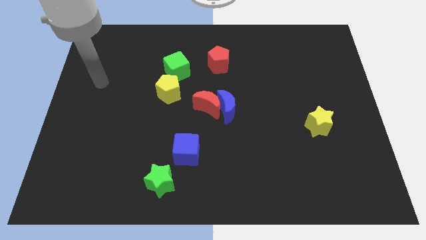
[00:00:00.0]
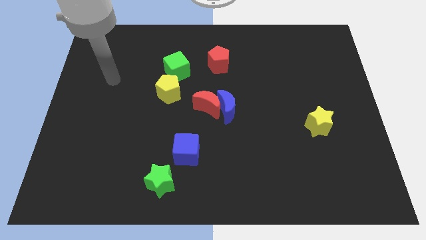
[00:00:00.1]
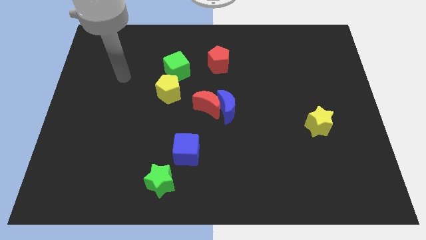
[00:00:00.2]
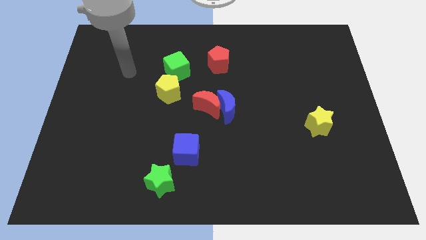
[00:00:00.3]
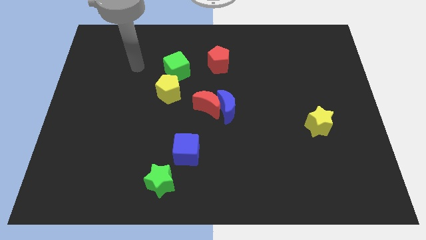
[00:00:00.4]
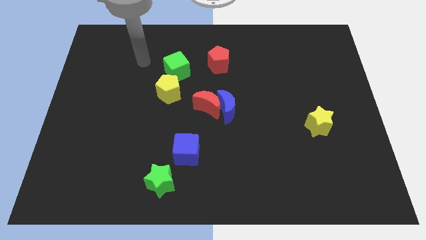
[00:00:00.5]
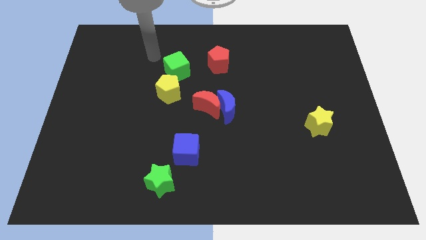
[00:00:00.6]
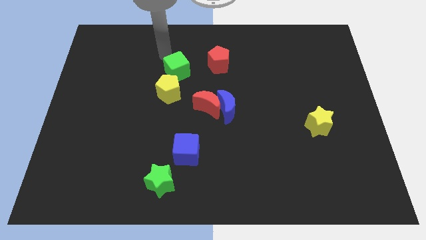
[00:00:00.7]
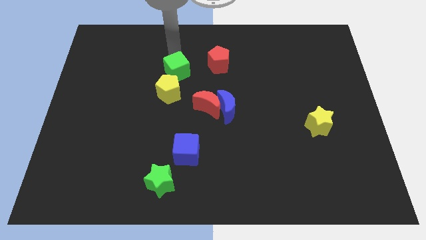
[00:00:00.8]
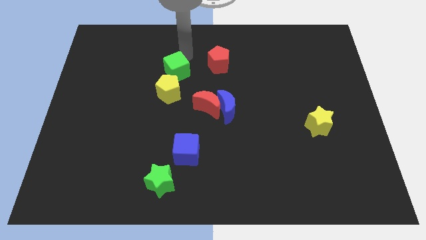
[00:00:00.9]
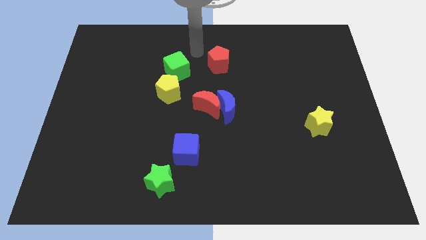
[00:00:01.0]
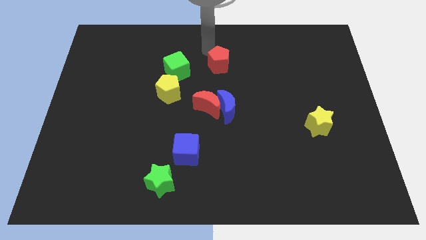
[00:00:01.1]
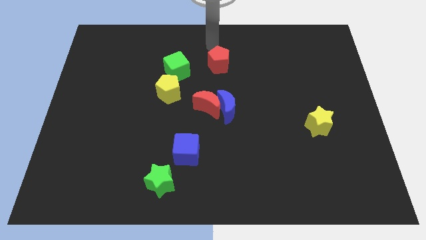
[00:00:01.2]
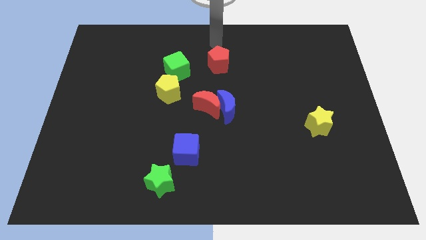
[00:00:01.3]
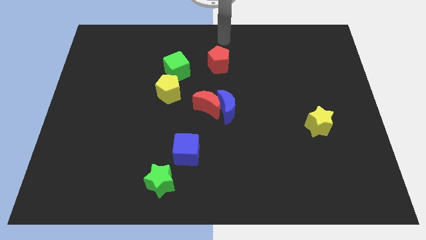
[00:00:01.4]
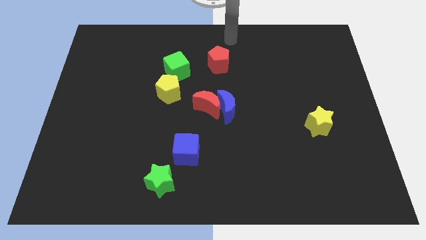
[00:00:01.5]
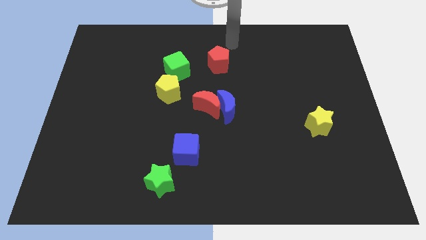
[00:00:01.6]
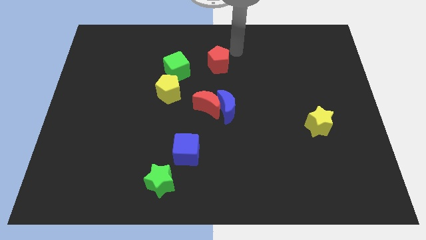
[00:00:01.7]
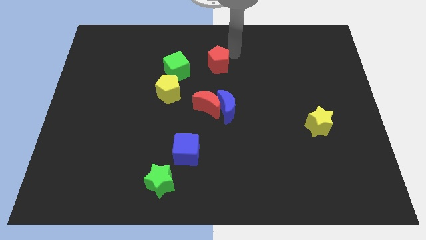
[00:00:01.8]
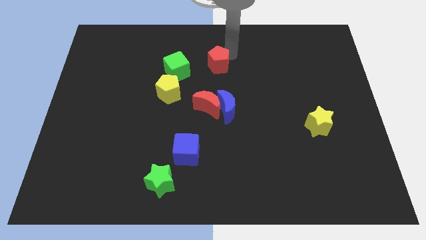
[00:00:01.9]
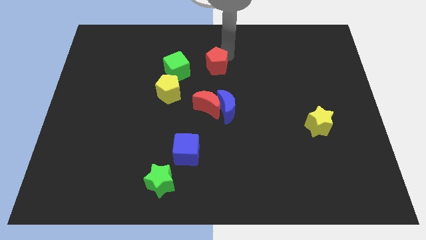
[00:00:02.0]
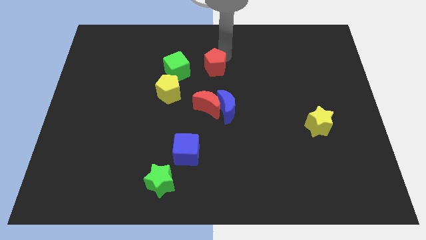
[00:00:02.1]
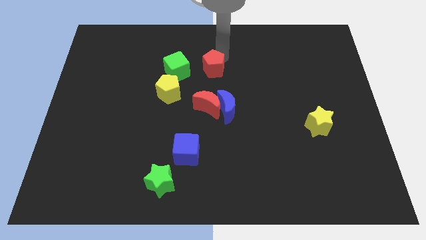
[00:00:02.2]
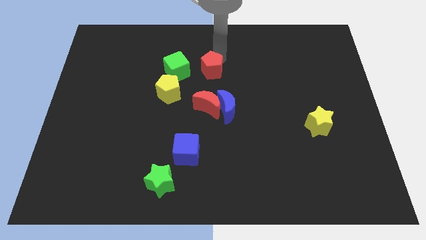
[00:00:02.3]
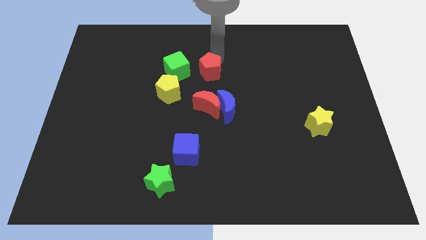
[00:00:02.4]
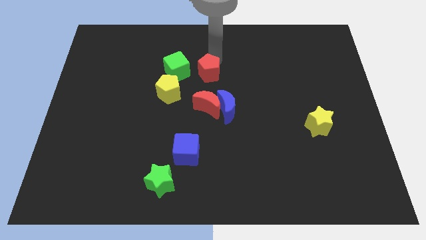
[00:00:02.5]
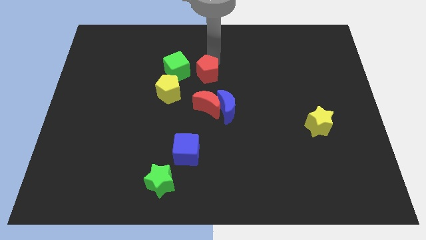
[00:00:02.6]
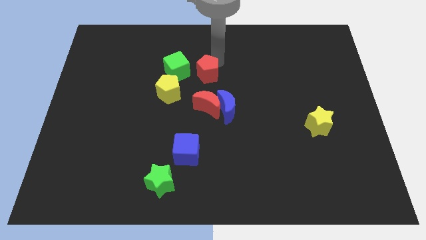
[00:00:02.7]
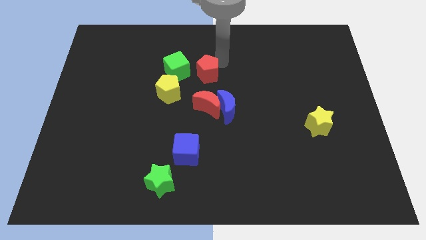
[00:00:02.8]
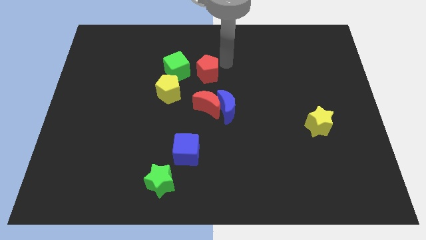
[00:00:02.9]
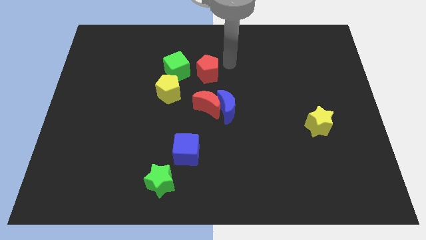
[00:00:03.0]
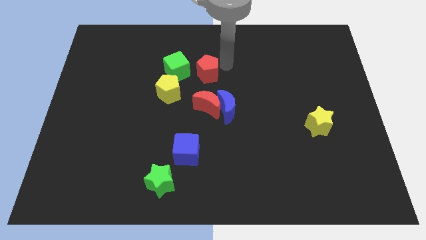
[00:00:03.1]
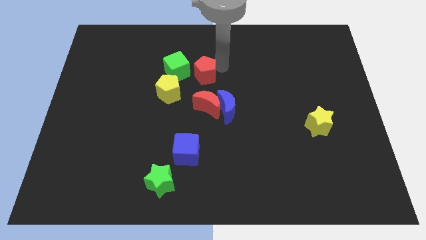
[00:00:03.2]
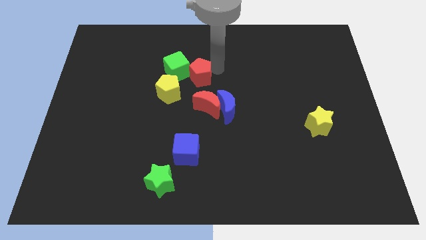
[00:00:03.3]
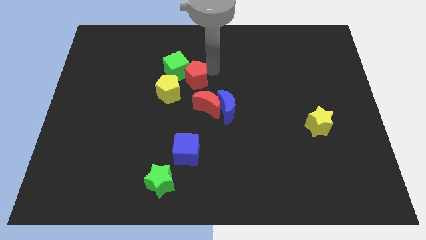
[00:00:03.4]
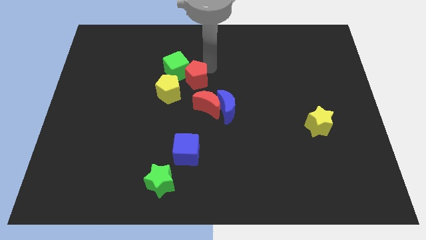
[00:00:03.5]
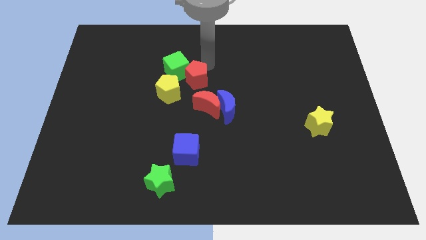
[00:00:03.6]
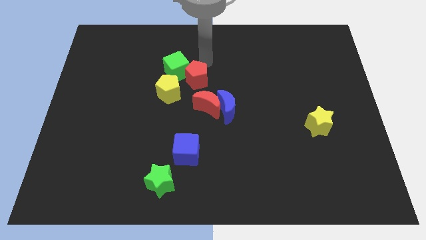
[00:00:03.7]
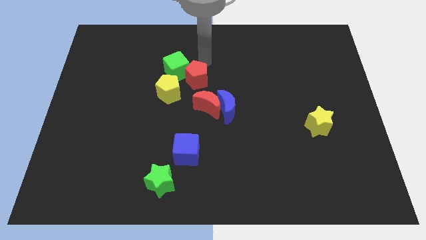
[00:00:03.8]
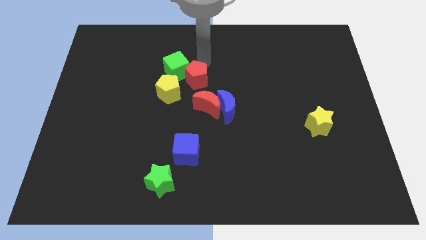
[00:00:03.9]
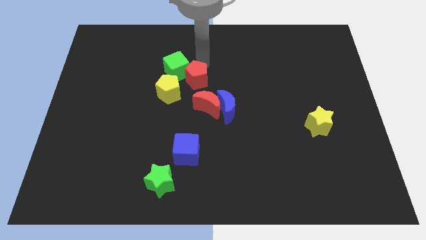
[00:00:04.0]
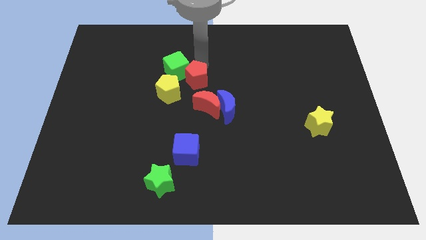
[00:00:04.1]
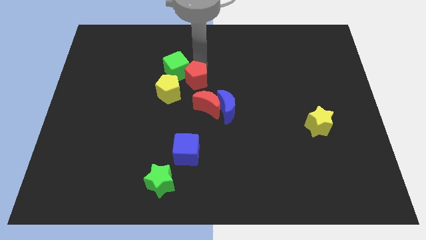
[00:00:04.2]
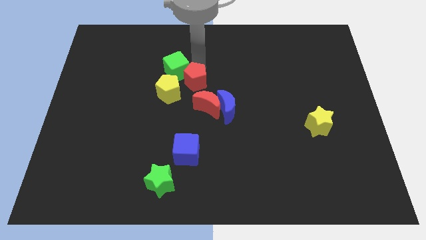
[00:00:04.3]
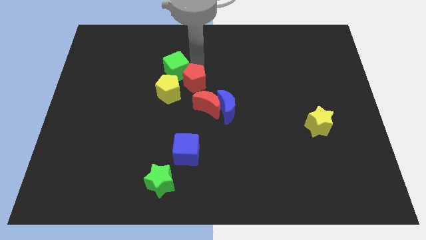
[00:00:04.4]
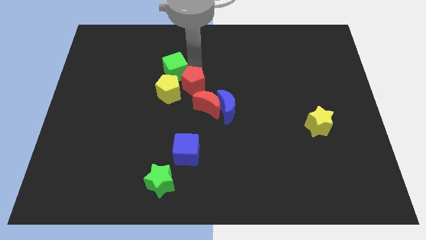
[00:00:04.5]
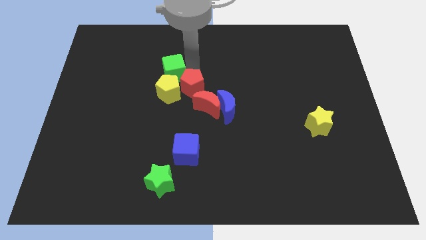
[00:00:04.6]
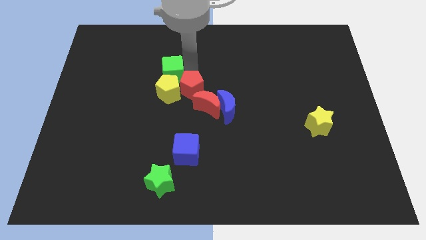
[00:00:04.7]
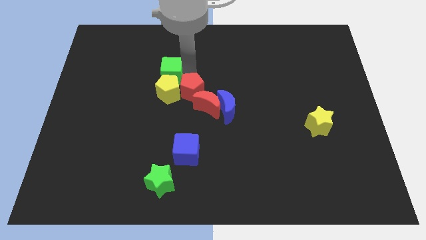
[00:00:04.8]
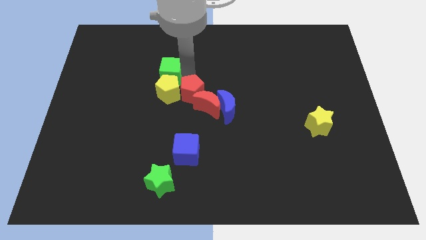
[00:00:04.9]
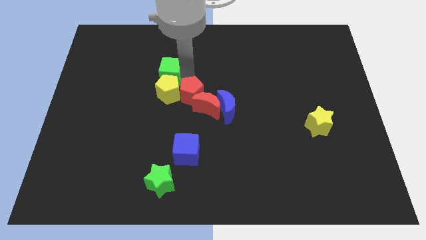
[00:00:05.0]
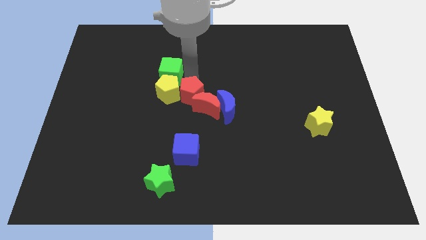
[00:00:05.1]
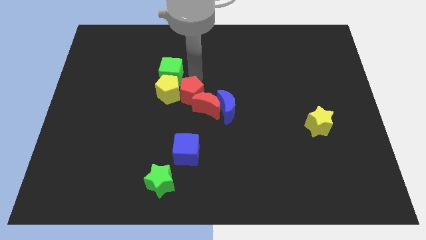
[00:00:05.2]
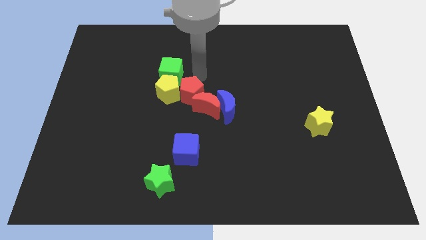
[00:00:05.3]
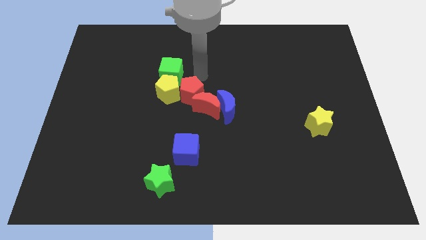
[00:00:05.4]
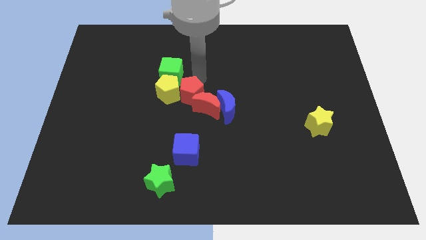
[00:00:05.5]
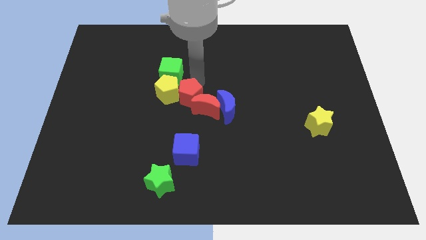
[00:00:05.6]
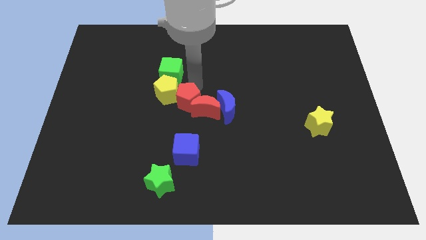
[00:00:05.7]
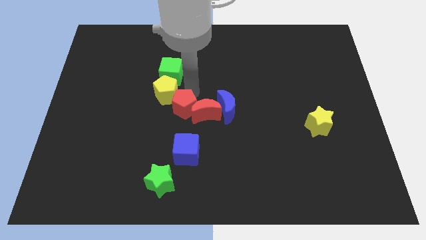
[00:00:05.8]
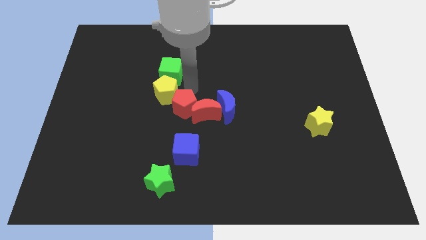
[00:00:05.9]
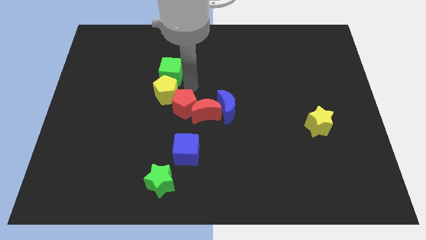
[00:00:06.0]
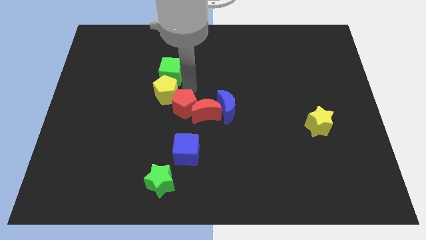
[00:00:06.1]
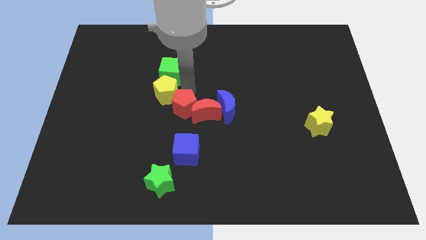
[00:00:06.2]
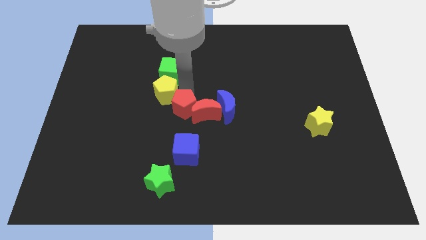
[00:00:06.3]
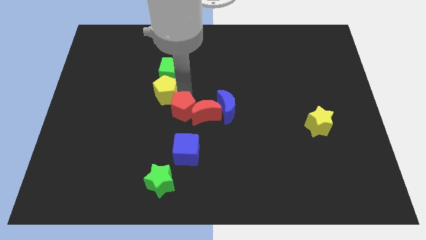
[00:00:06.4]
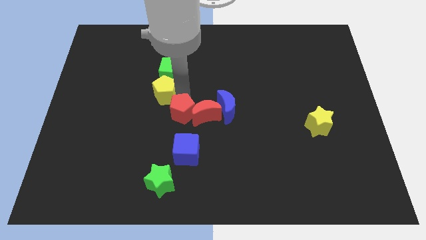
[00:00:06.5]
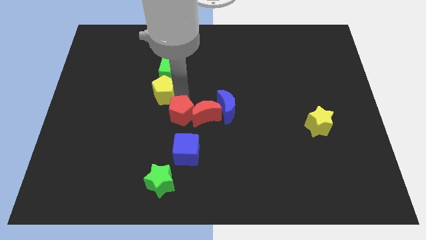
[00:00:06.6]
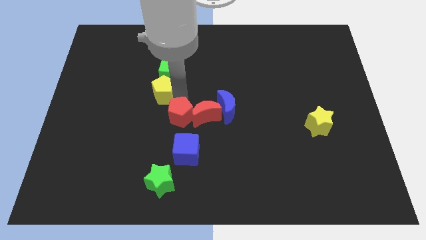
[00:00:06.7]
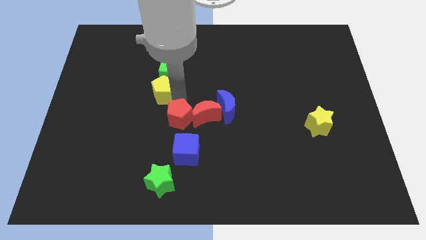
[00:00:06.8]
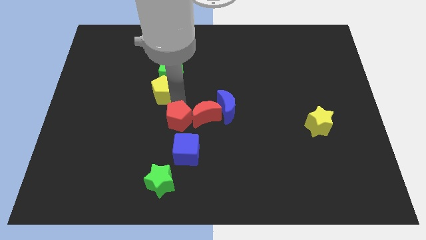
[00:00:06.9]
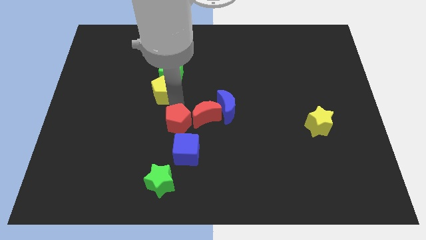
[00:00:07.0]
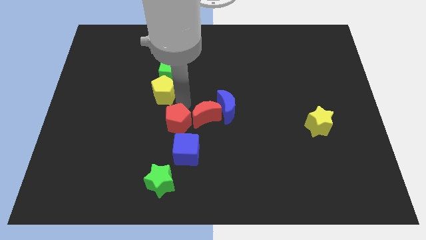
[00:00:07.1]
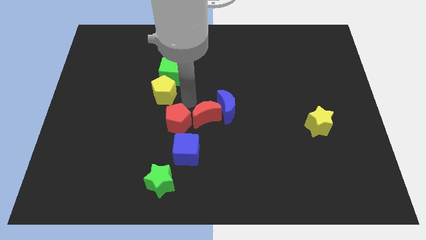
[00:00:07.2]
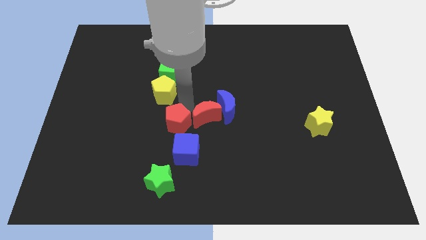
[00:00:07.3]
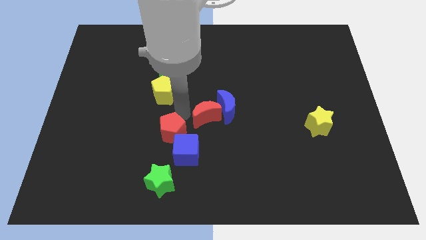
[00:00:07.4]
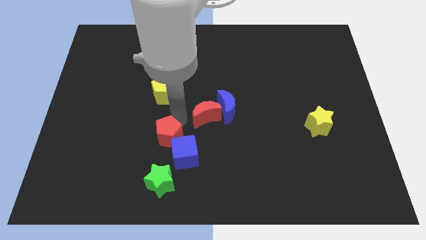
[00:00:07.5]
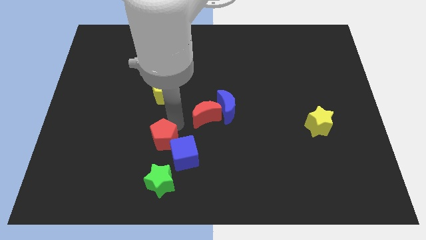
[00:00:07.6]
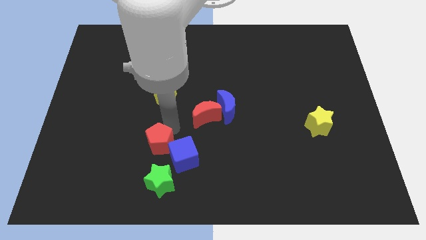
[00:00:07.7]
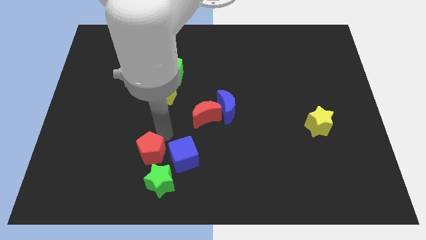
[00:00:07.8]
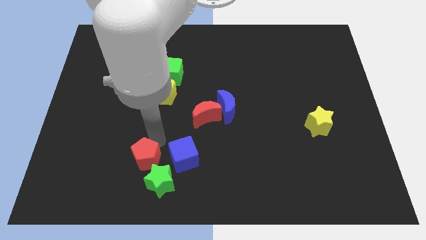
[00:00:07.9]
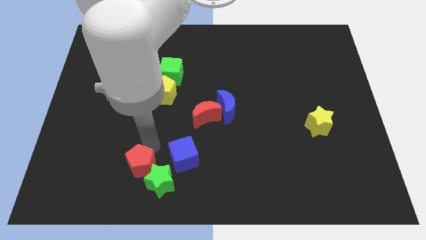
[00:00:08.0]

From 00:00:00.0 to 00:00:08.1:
put the red pentagon next to the green star
